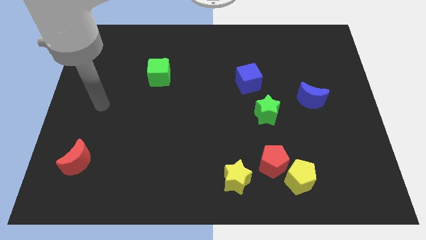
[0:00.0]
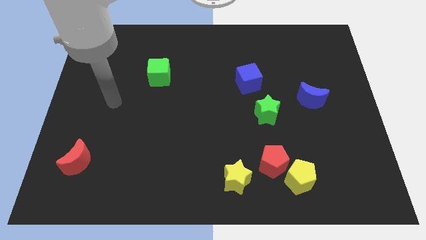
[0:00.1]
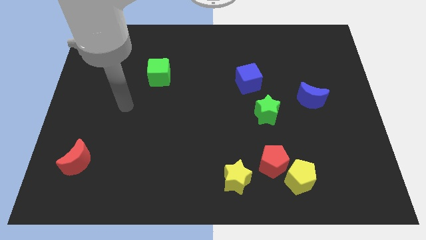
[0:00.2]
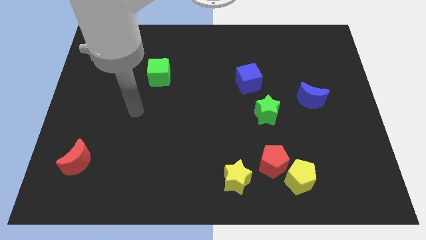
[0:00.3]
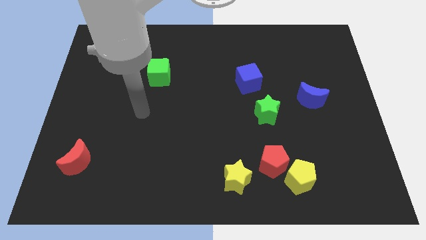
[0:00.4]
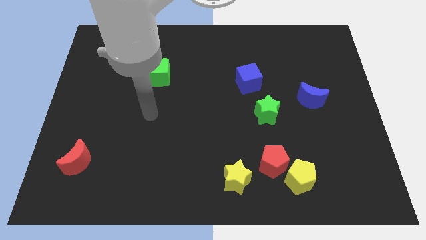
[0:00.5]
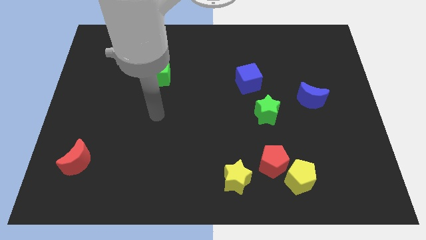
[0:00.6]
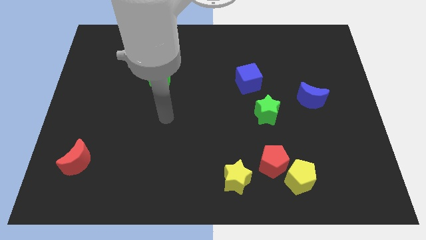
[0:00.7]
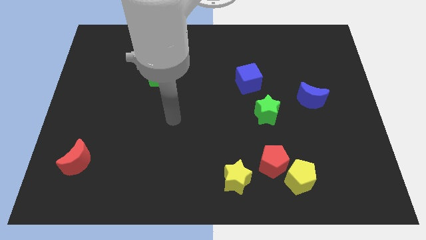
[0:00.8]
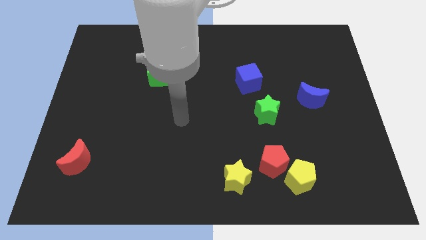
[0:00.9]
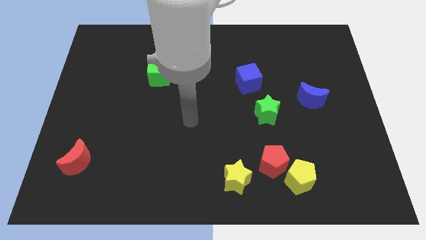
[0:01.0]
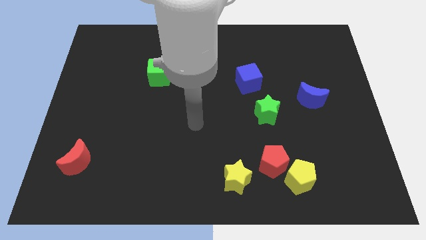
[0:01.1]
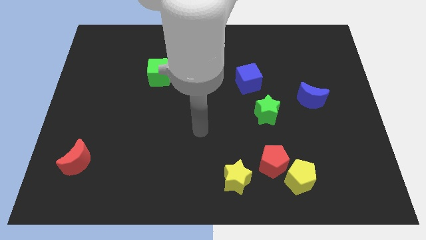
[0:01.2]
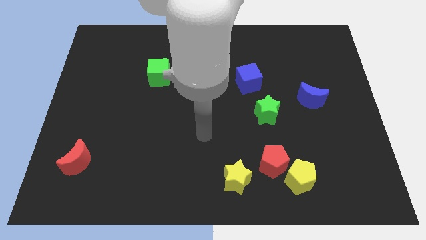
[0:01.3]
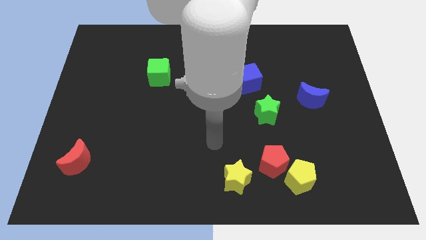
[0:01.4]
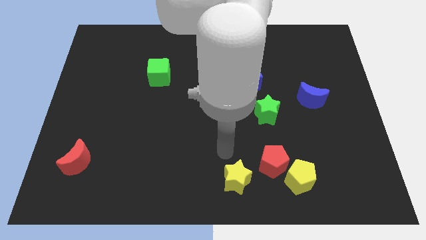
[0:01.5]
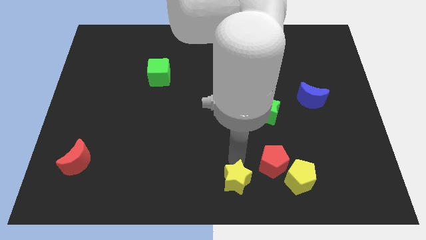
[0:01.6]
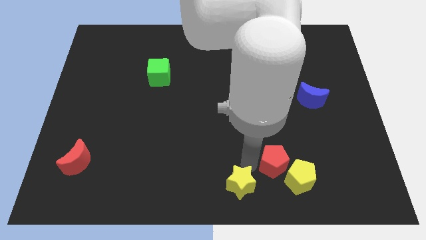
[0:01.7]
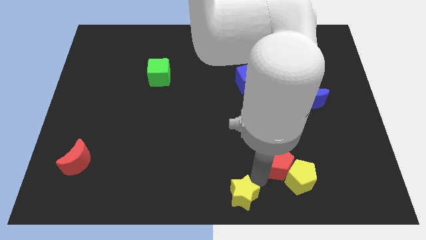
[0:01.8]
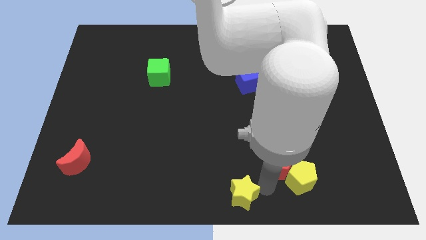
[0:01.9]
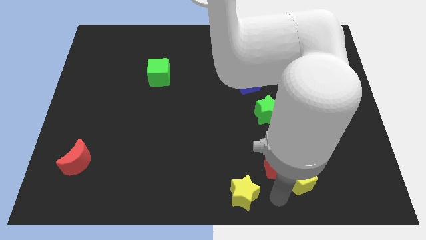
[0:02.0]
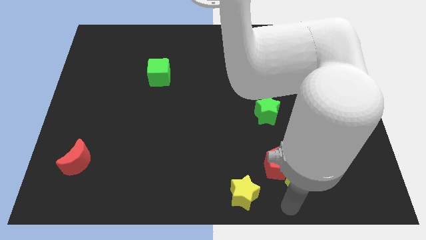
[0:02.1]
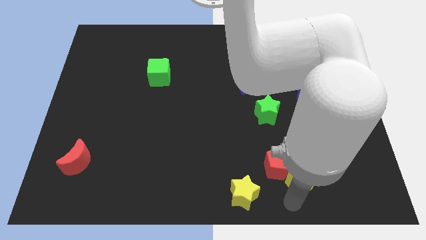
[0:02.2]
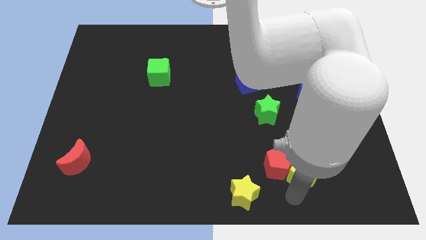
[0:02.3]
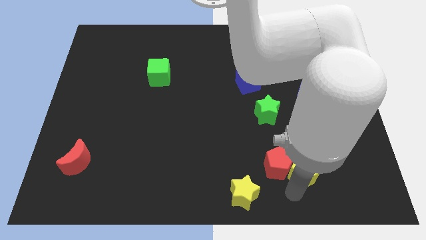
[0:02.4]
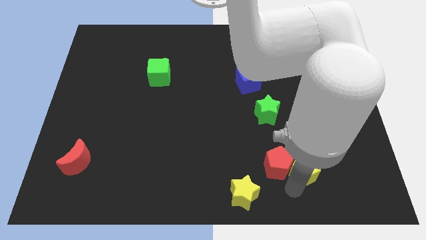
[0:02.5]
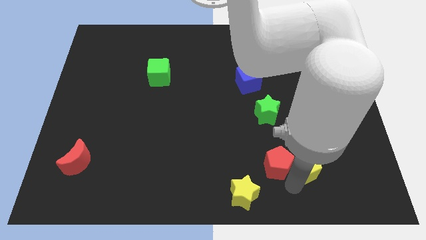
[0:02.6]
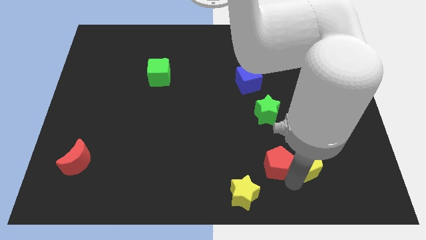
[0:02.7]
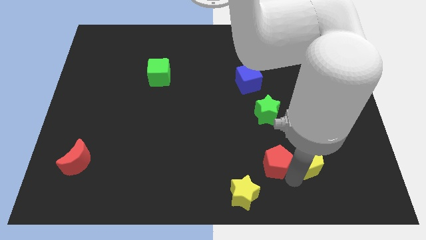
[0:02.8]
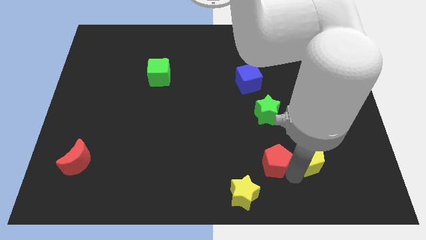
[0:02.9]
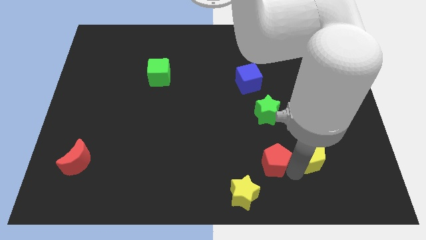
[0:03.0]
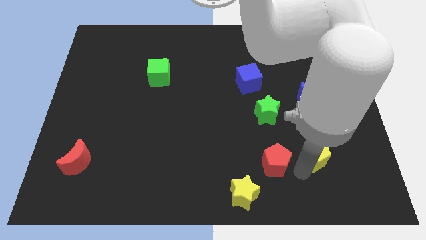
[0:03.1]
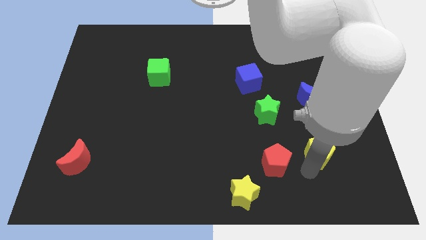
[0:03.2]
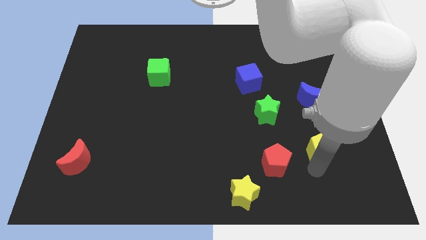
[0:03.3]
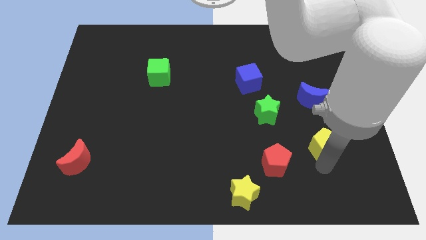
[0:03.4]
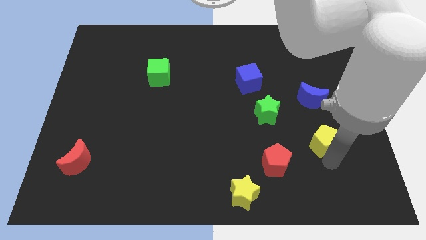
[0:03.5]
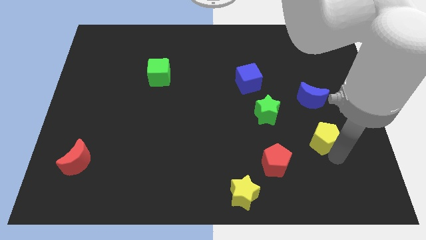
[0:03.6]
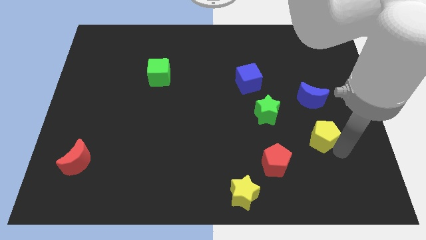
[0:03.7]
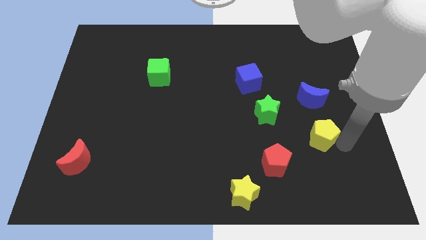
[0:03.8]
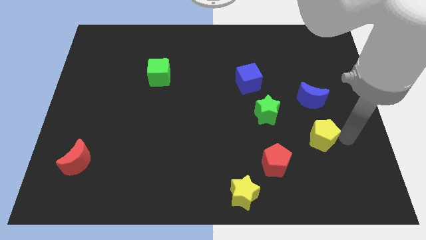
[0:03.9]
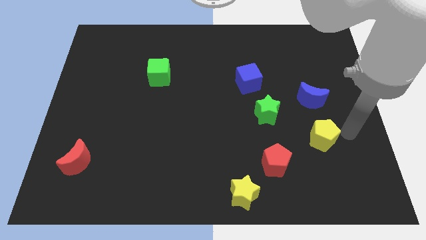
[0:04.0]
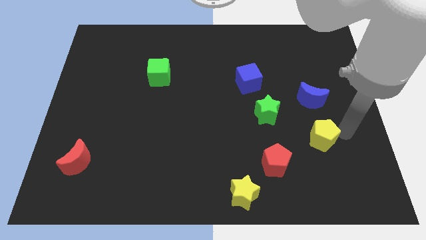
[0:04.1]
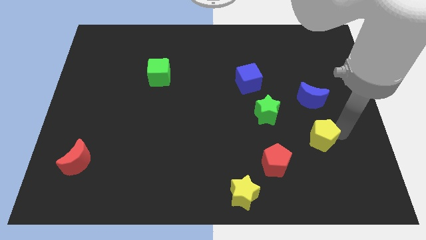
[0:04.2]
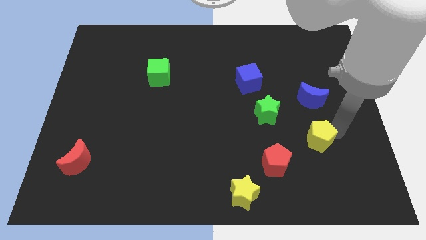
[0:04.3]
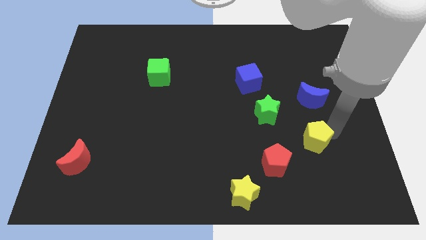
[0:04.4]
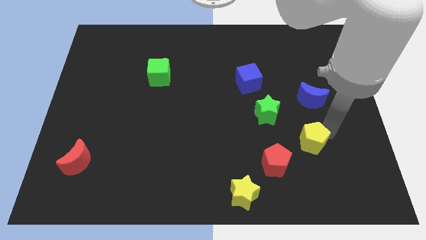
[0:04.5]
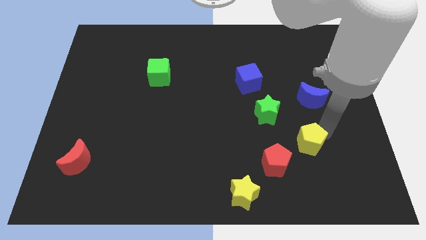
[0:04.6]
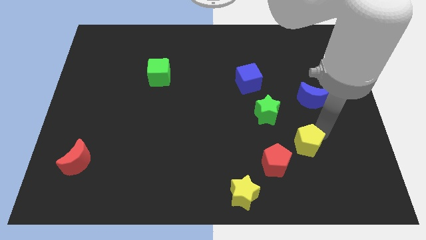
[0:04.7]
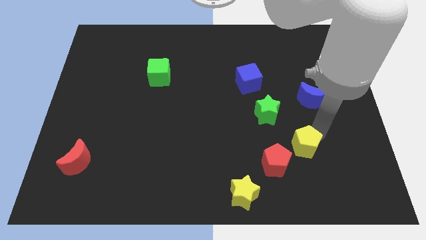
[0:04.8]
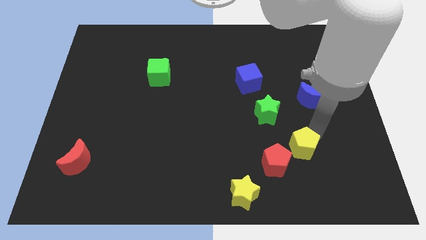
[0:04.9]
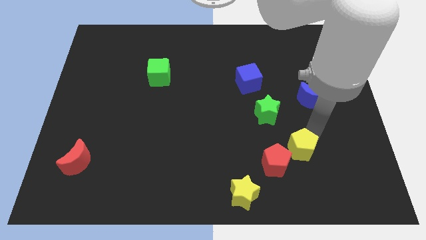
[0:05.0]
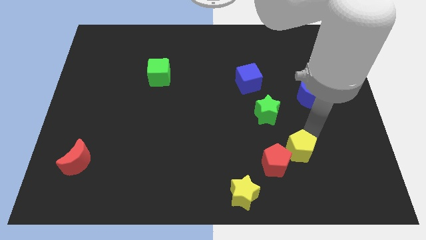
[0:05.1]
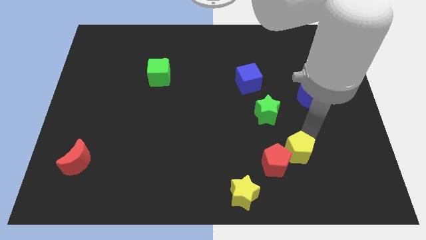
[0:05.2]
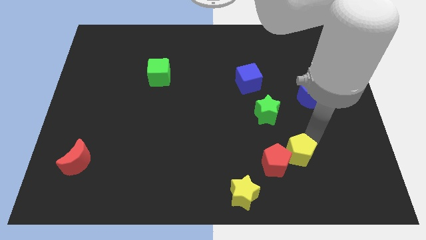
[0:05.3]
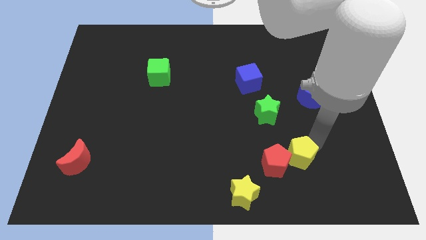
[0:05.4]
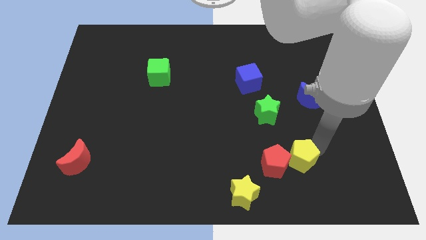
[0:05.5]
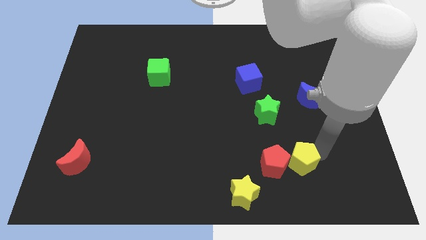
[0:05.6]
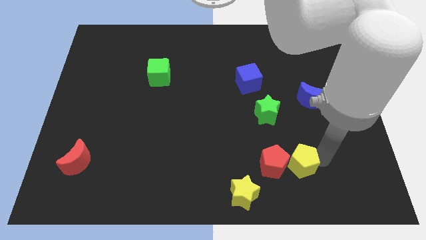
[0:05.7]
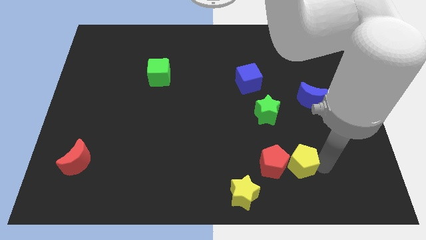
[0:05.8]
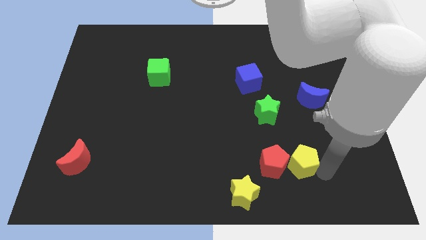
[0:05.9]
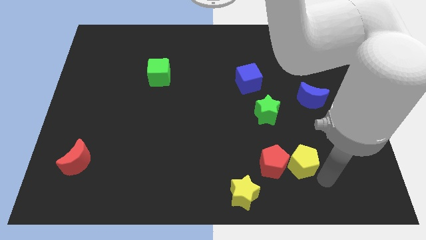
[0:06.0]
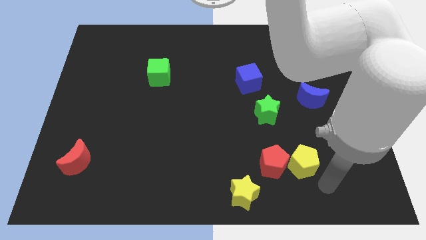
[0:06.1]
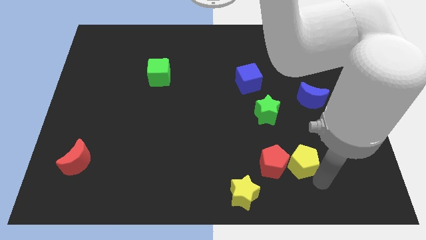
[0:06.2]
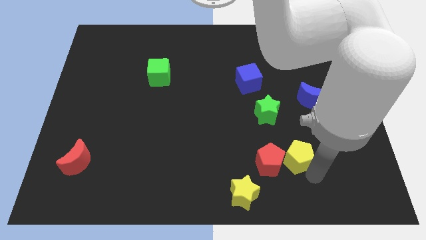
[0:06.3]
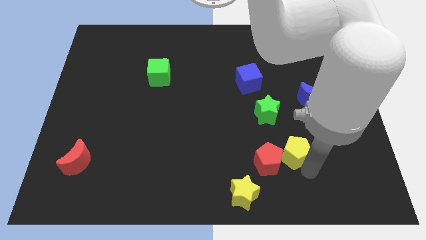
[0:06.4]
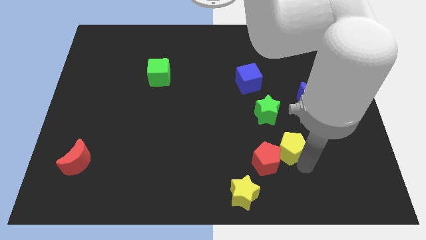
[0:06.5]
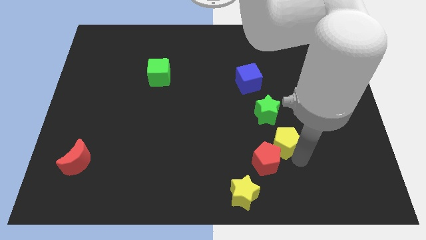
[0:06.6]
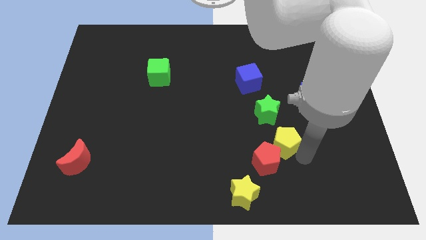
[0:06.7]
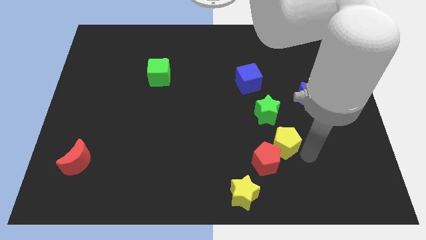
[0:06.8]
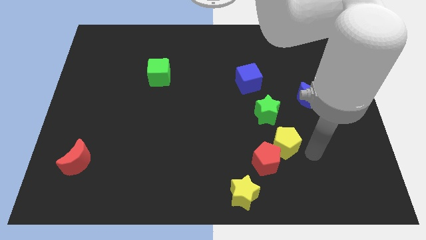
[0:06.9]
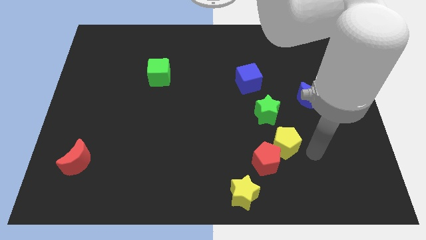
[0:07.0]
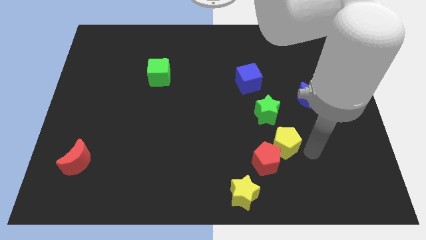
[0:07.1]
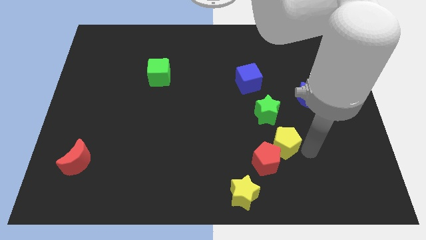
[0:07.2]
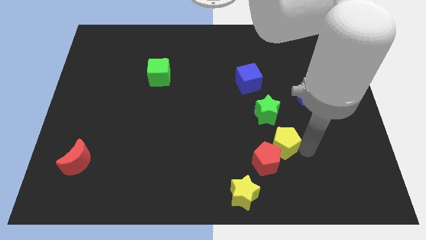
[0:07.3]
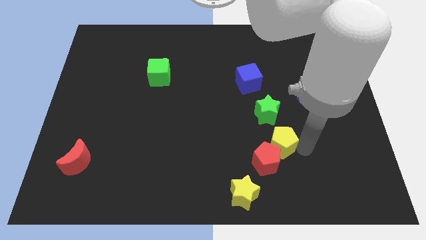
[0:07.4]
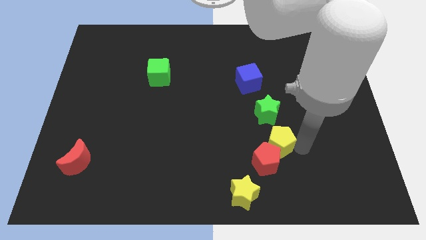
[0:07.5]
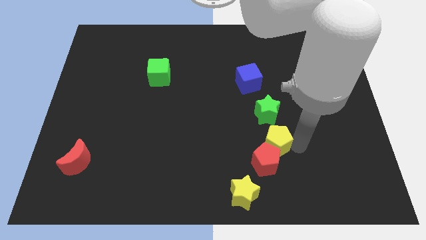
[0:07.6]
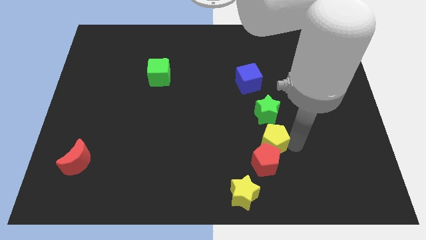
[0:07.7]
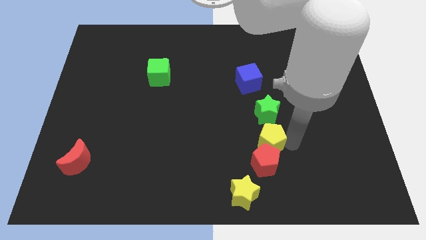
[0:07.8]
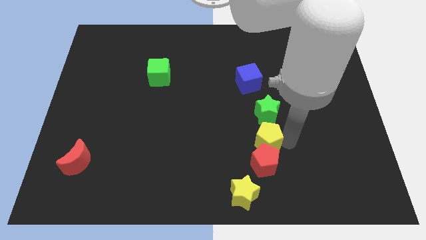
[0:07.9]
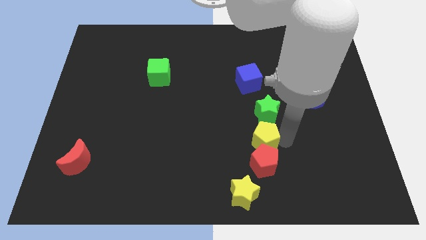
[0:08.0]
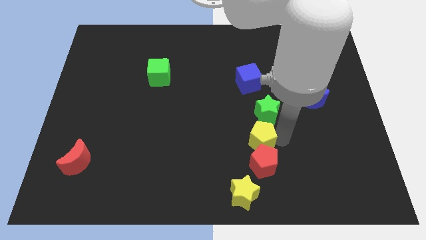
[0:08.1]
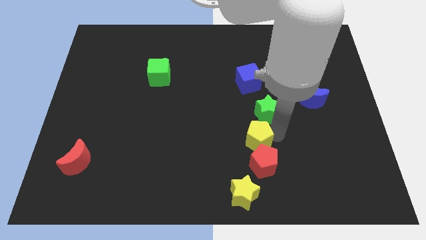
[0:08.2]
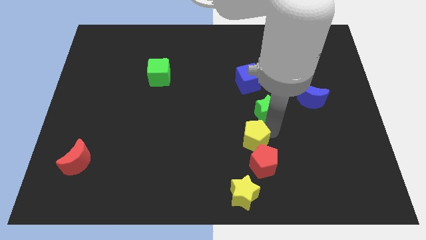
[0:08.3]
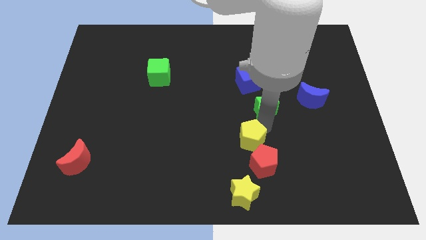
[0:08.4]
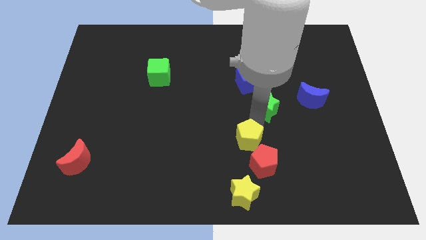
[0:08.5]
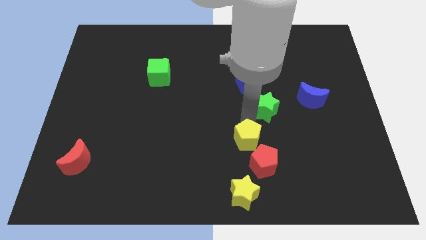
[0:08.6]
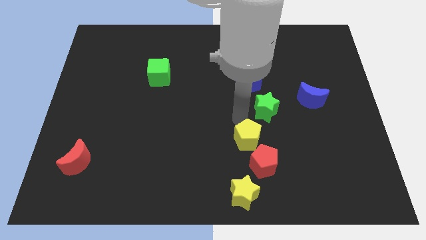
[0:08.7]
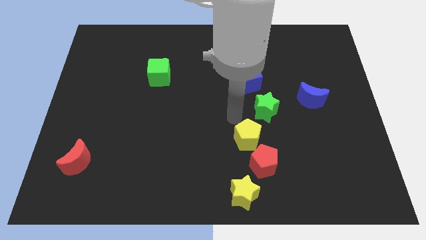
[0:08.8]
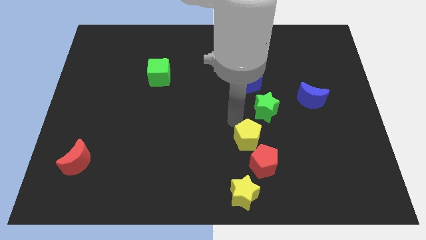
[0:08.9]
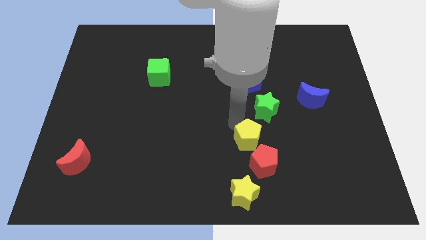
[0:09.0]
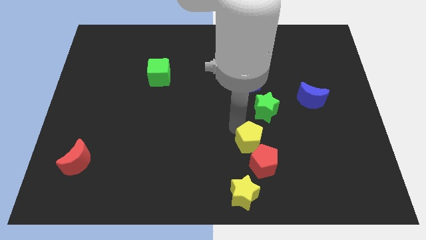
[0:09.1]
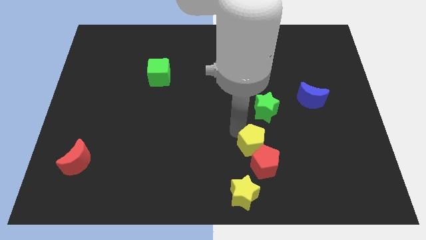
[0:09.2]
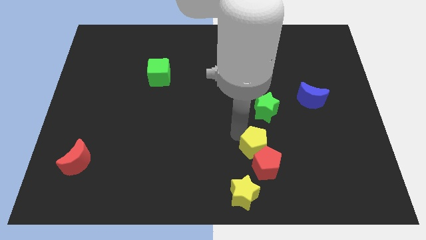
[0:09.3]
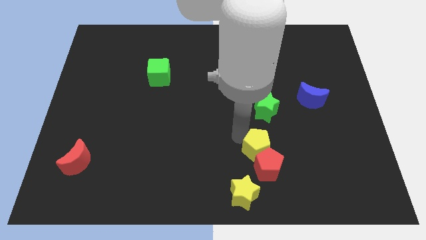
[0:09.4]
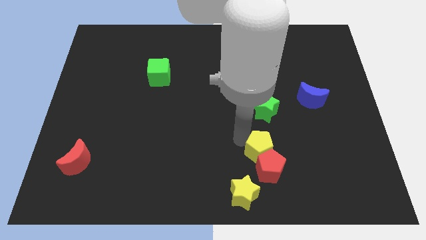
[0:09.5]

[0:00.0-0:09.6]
put the yellow pentagon to the top right side of the yellow star
